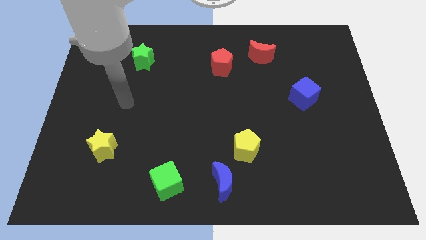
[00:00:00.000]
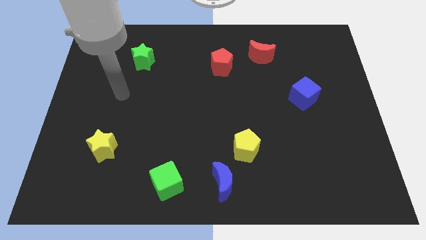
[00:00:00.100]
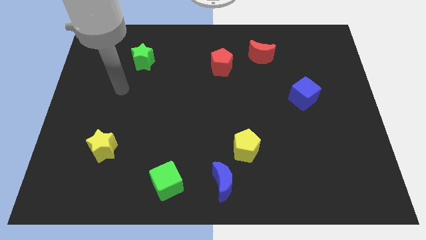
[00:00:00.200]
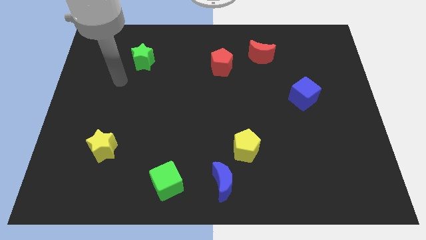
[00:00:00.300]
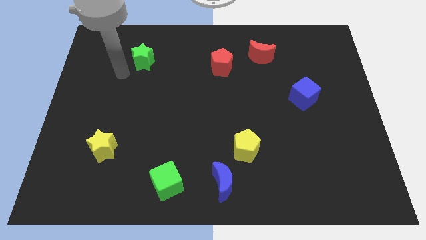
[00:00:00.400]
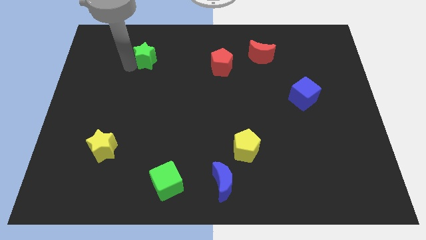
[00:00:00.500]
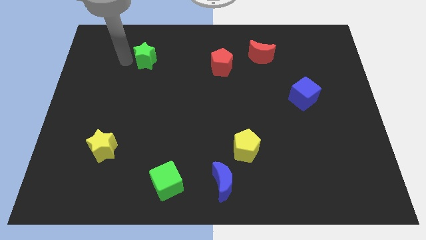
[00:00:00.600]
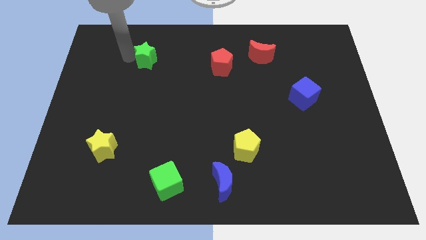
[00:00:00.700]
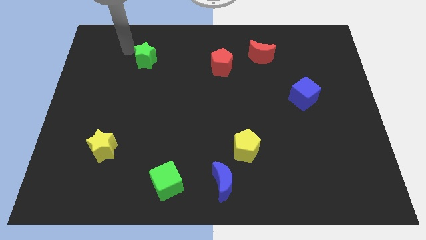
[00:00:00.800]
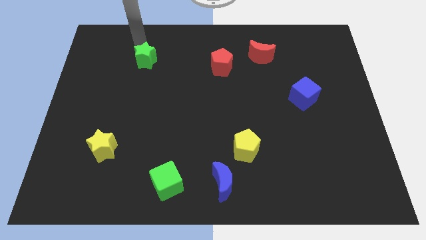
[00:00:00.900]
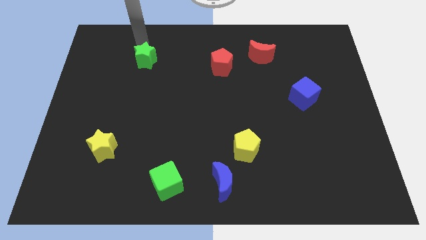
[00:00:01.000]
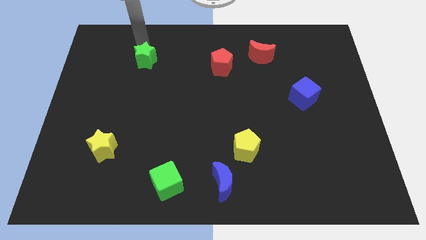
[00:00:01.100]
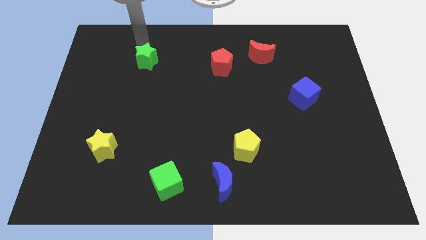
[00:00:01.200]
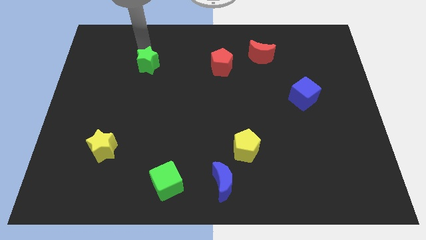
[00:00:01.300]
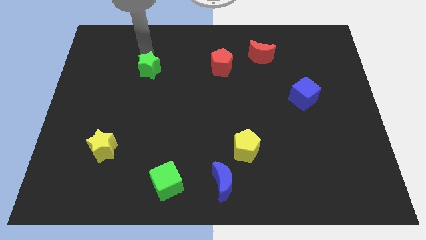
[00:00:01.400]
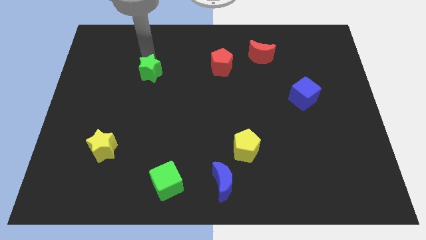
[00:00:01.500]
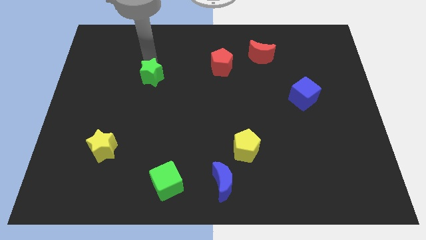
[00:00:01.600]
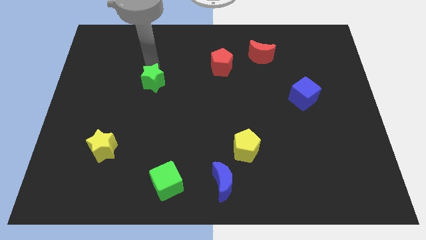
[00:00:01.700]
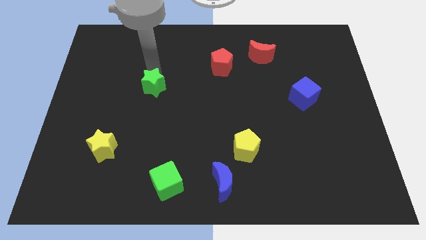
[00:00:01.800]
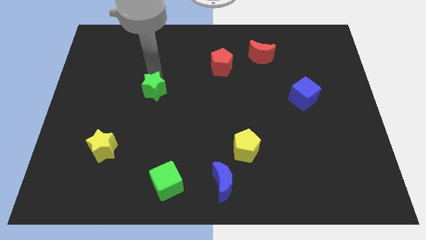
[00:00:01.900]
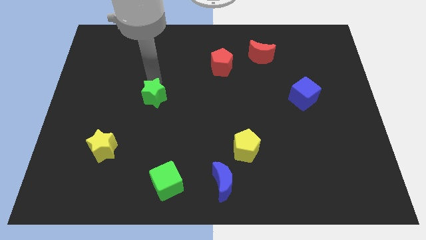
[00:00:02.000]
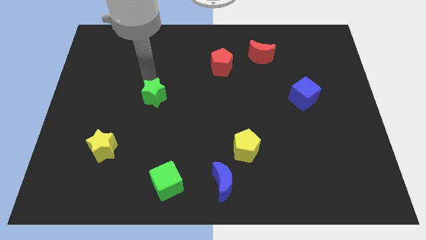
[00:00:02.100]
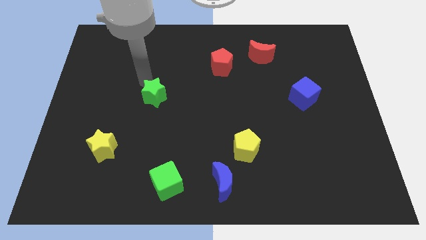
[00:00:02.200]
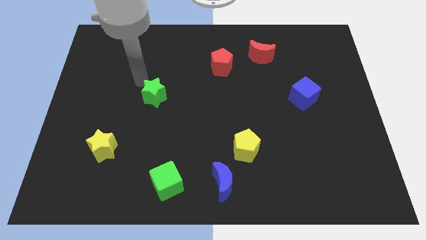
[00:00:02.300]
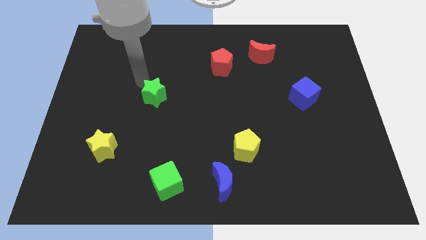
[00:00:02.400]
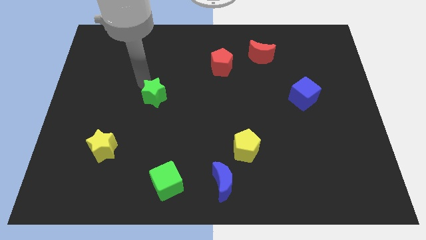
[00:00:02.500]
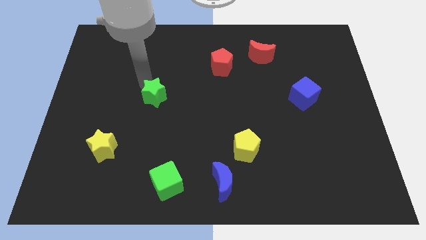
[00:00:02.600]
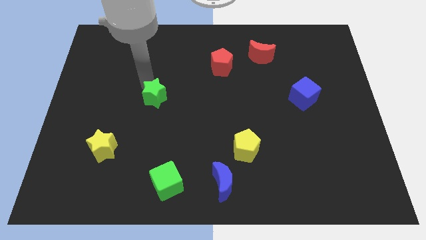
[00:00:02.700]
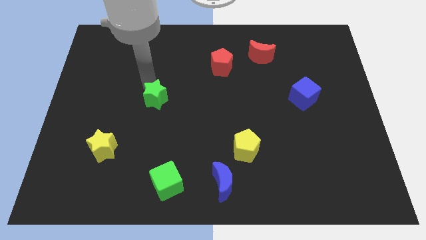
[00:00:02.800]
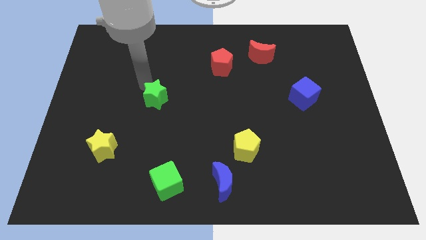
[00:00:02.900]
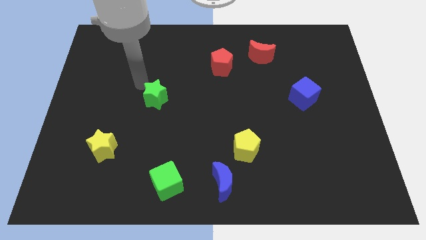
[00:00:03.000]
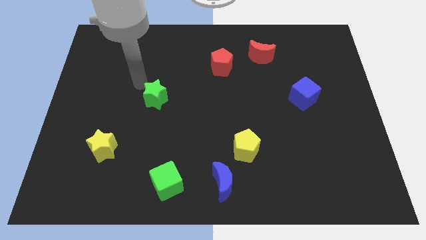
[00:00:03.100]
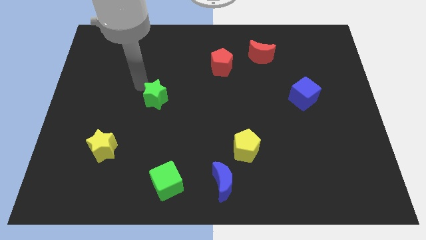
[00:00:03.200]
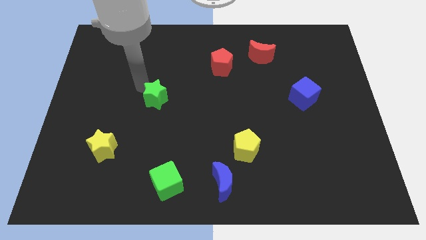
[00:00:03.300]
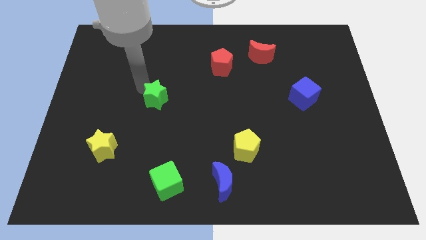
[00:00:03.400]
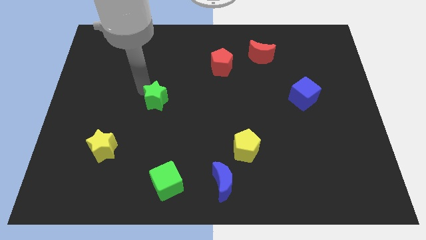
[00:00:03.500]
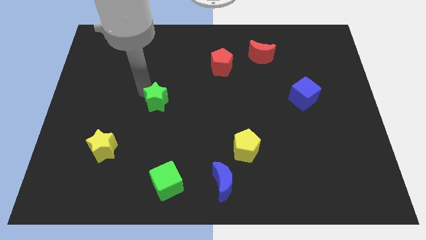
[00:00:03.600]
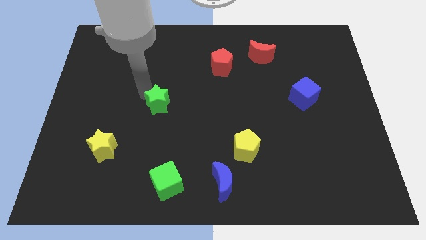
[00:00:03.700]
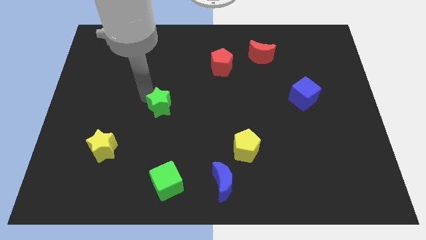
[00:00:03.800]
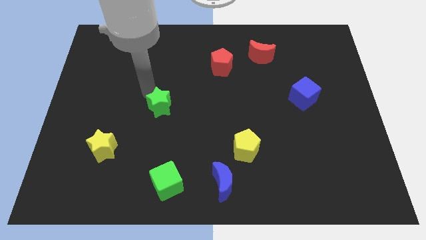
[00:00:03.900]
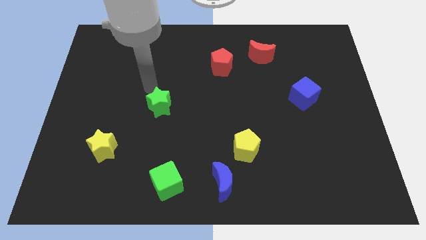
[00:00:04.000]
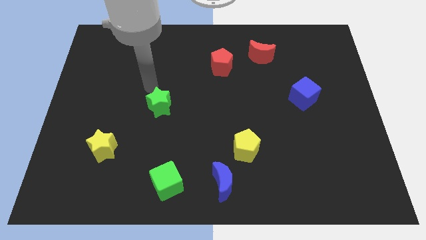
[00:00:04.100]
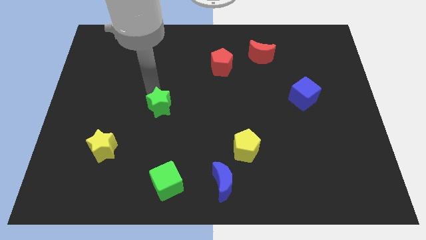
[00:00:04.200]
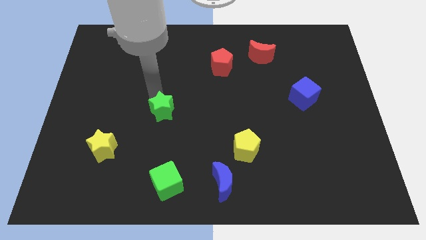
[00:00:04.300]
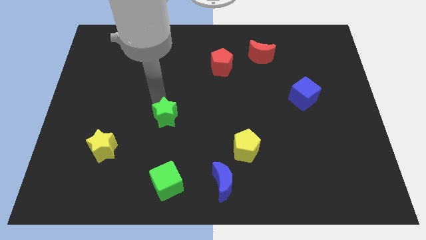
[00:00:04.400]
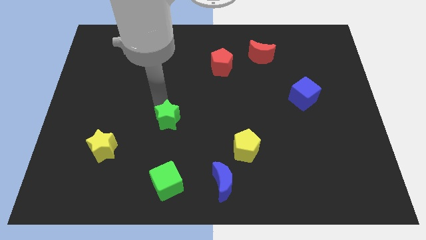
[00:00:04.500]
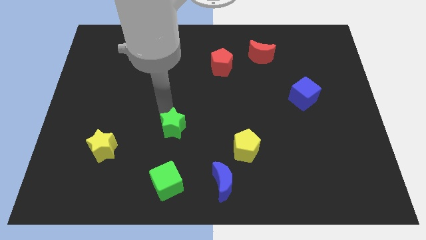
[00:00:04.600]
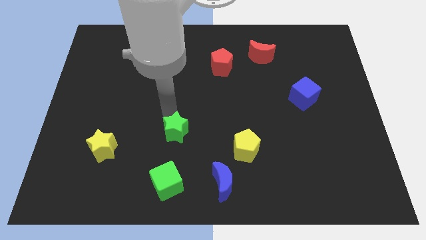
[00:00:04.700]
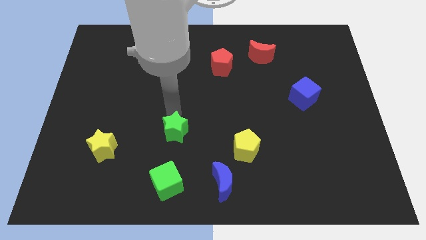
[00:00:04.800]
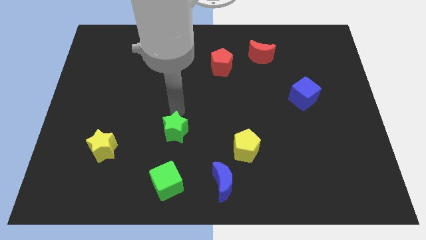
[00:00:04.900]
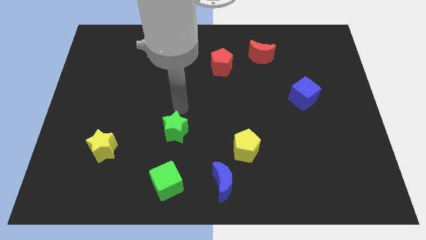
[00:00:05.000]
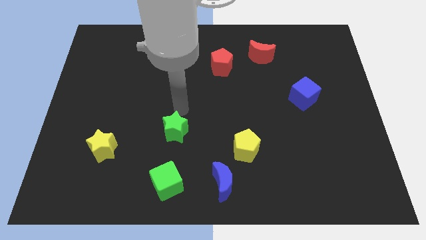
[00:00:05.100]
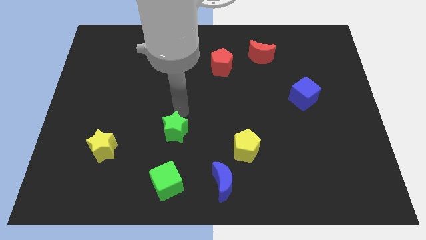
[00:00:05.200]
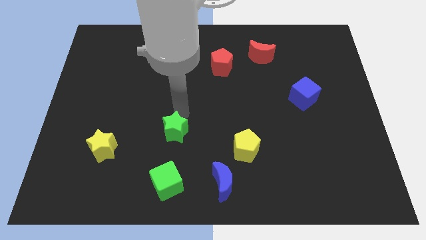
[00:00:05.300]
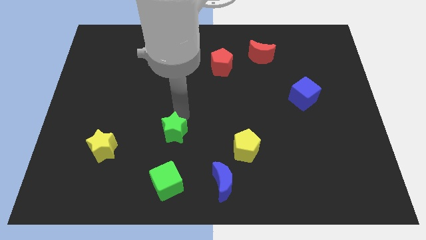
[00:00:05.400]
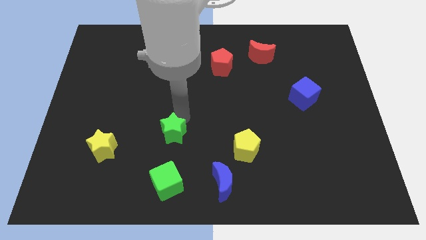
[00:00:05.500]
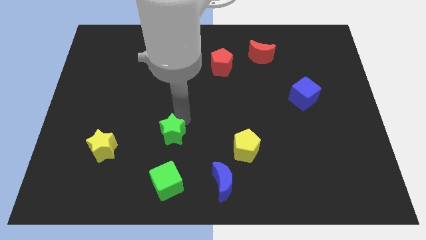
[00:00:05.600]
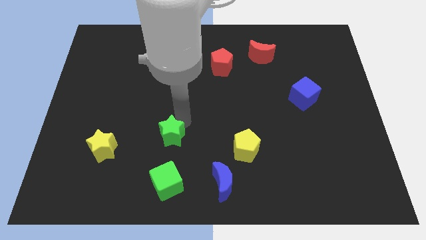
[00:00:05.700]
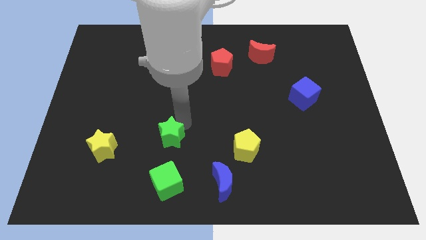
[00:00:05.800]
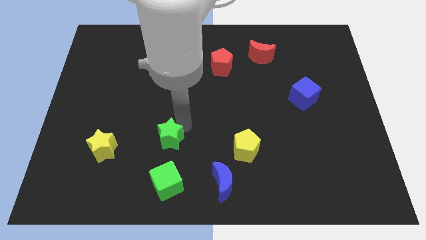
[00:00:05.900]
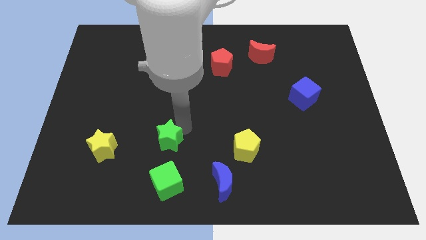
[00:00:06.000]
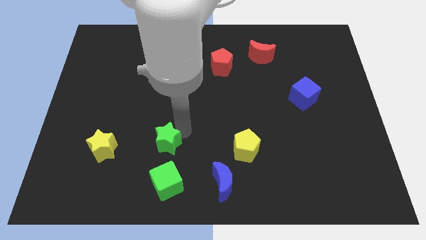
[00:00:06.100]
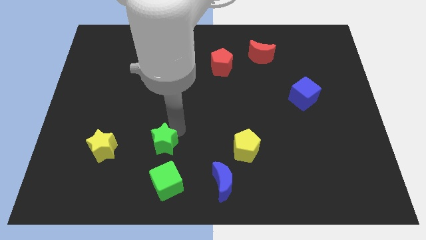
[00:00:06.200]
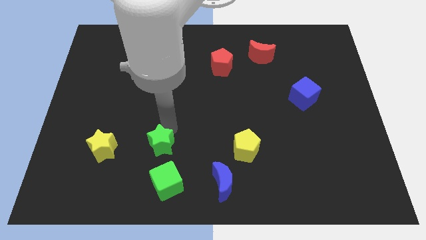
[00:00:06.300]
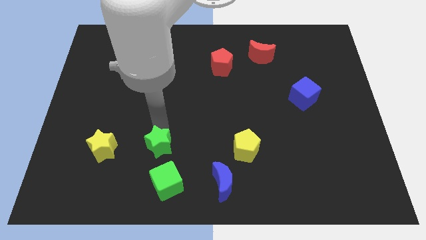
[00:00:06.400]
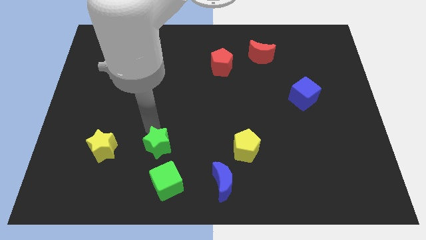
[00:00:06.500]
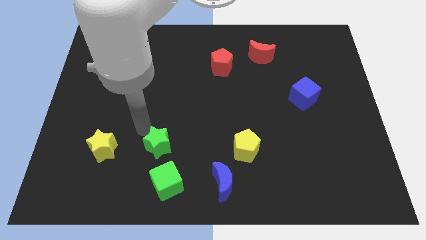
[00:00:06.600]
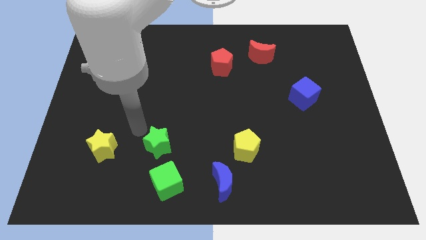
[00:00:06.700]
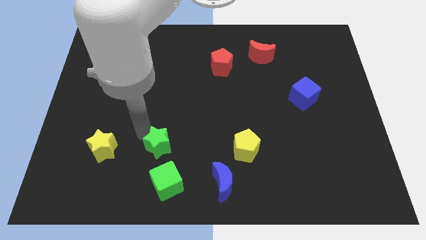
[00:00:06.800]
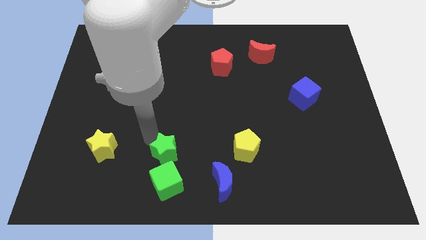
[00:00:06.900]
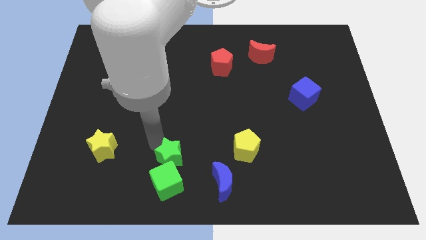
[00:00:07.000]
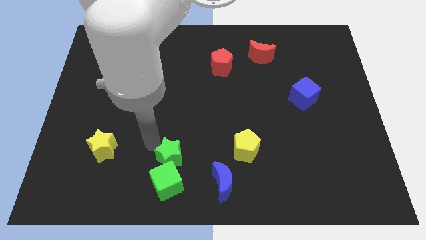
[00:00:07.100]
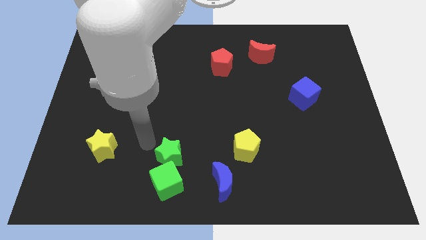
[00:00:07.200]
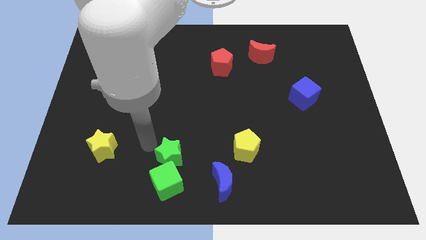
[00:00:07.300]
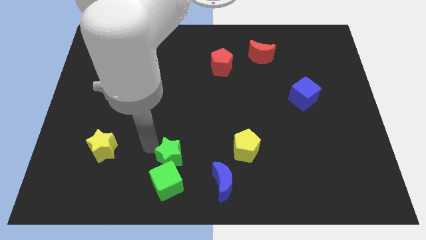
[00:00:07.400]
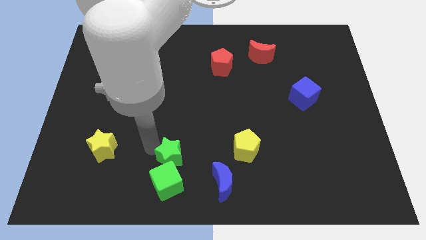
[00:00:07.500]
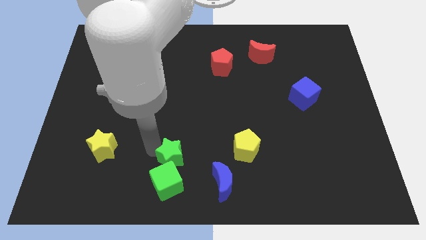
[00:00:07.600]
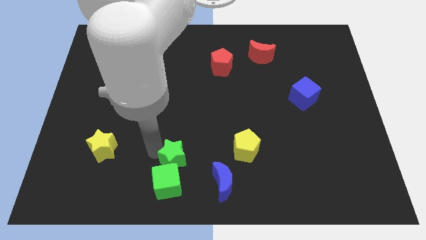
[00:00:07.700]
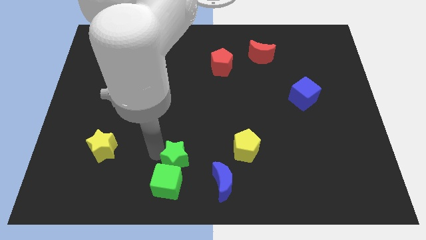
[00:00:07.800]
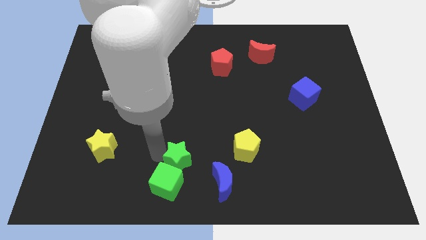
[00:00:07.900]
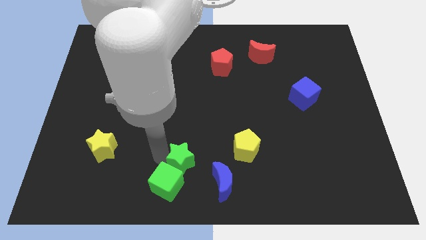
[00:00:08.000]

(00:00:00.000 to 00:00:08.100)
slide the green star to the bottom side
